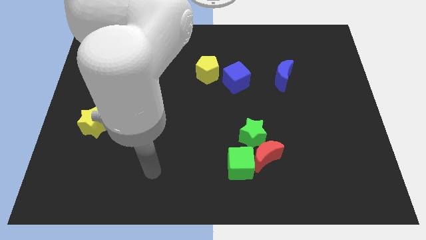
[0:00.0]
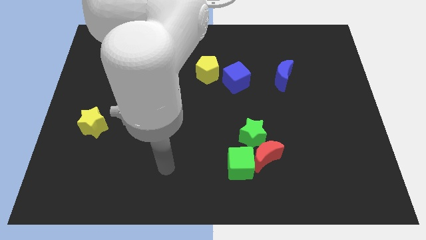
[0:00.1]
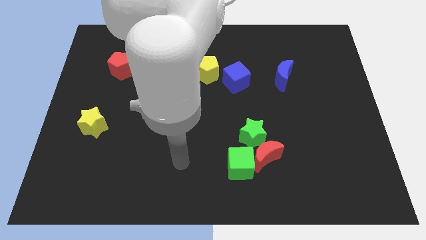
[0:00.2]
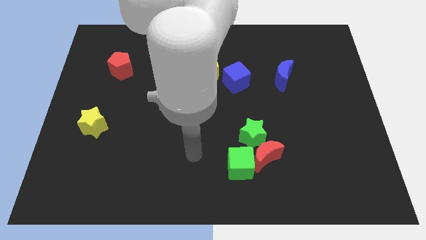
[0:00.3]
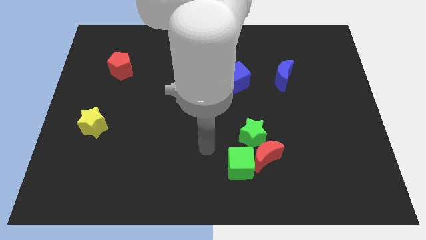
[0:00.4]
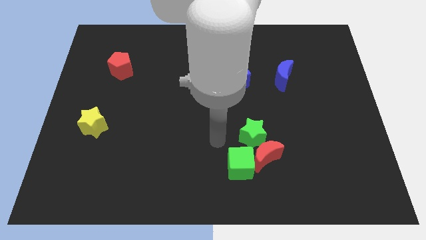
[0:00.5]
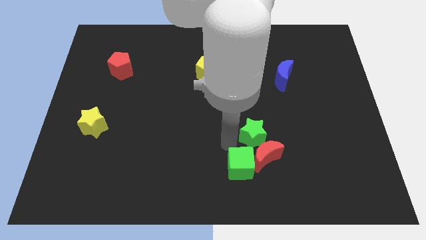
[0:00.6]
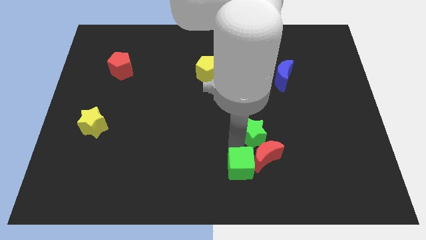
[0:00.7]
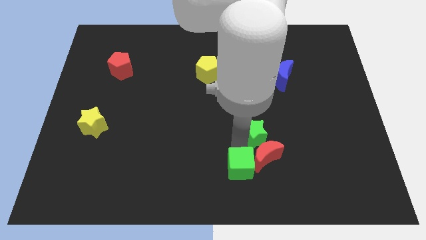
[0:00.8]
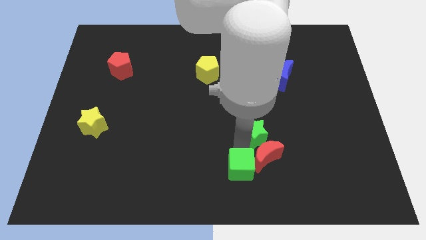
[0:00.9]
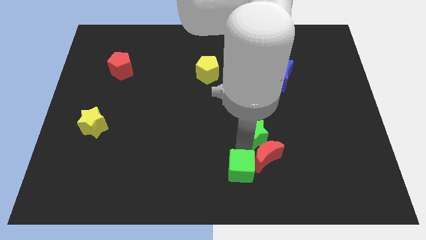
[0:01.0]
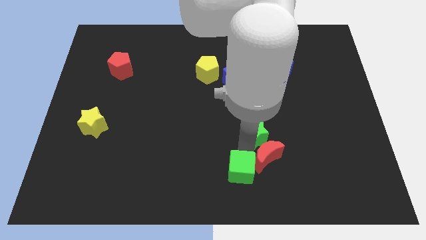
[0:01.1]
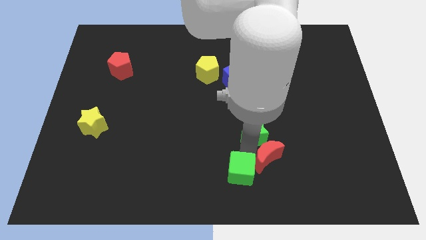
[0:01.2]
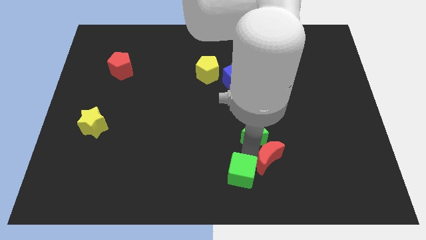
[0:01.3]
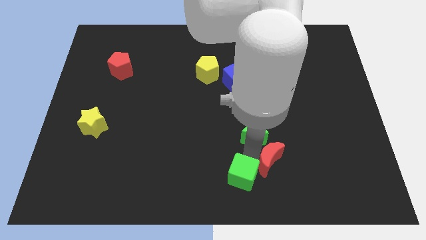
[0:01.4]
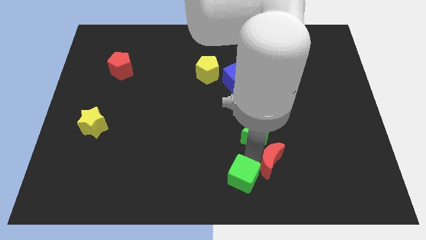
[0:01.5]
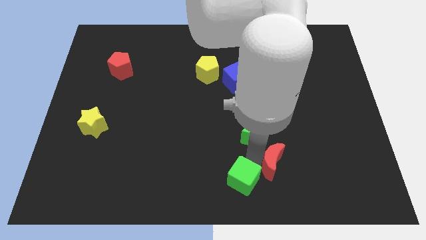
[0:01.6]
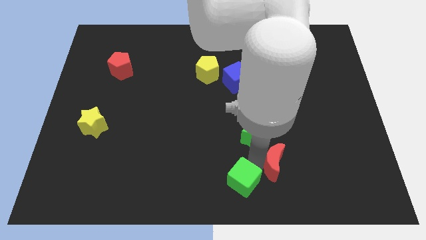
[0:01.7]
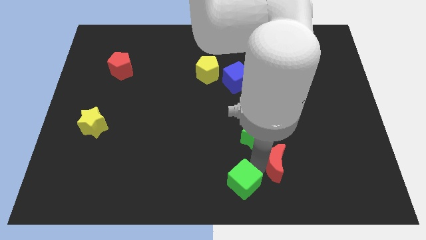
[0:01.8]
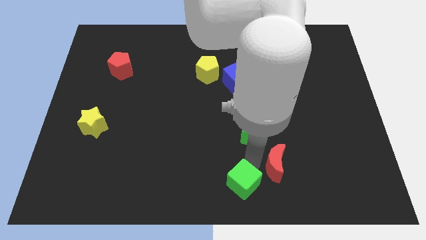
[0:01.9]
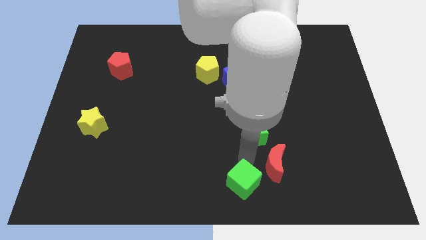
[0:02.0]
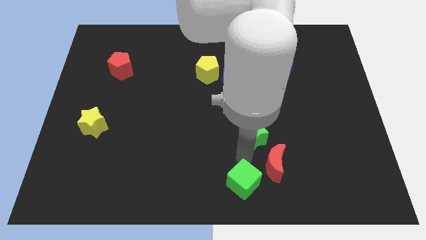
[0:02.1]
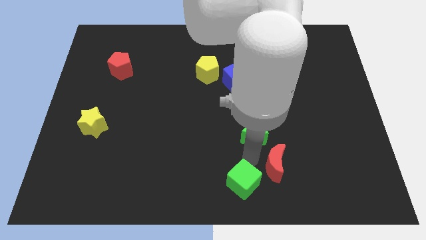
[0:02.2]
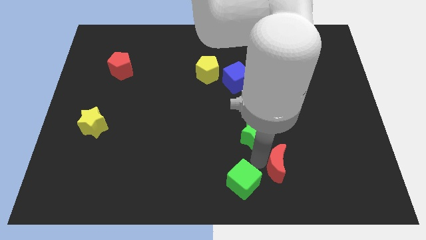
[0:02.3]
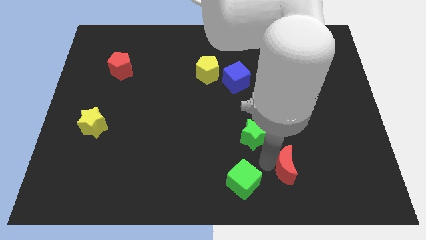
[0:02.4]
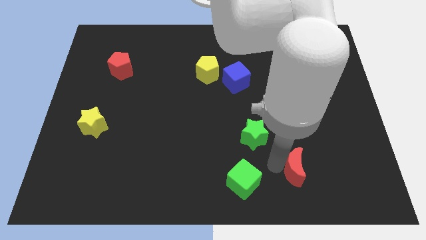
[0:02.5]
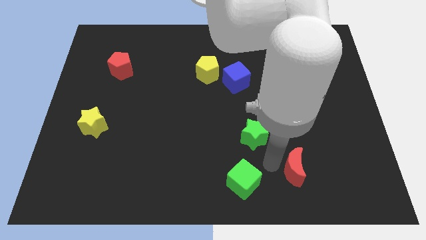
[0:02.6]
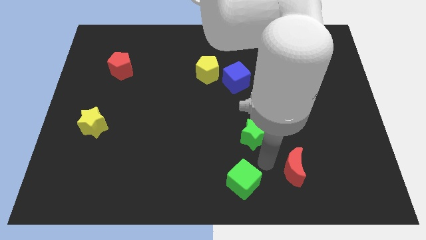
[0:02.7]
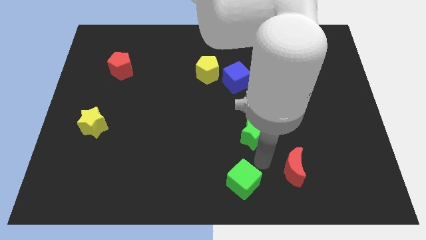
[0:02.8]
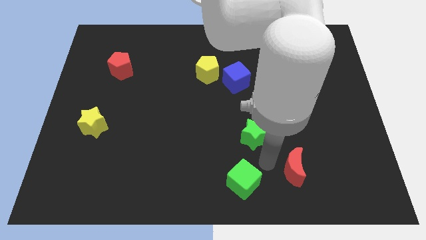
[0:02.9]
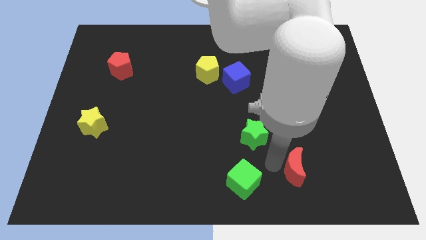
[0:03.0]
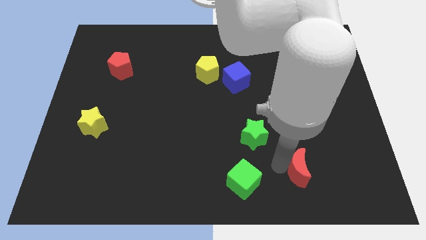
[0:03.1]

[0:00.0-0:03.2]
move the red moon away from the green star and green cube

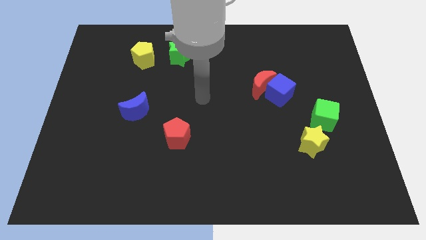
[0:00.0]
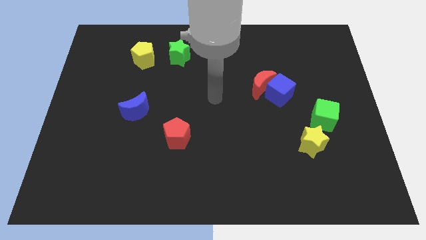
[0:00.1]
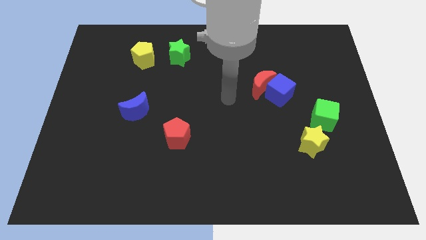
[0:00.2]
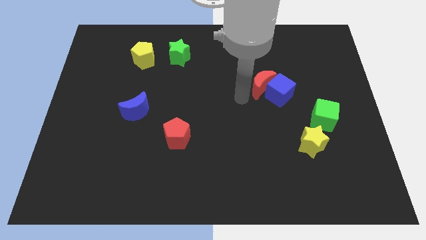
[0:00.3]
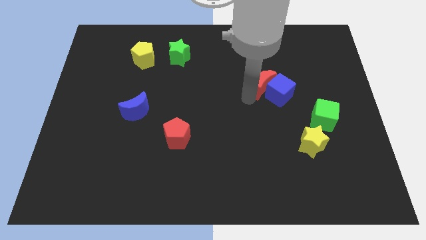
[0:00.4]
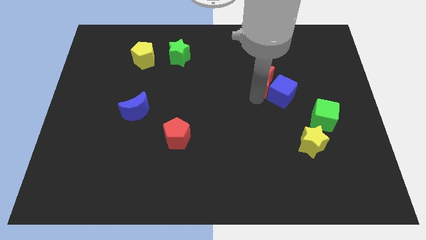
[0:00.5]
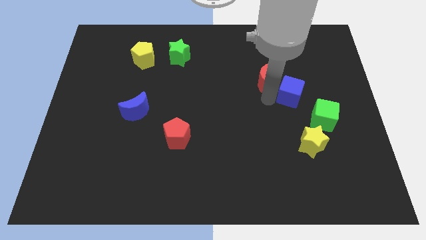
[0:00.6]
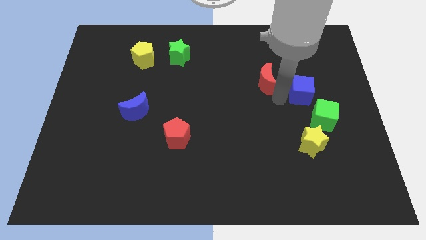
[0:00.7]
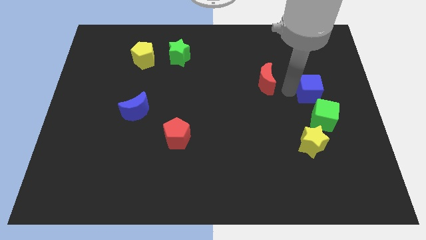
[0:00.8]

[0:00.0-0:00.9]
separate the red moon from the blue cube

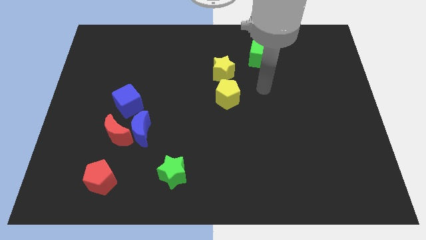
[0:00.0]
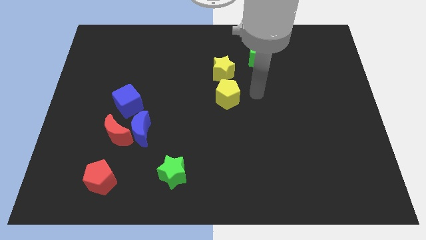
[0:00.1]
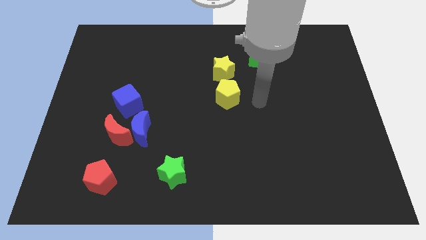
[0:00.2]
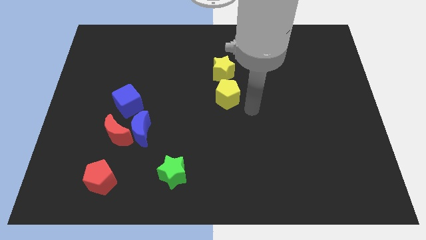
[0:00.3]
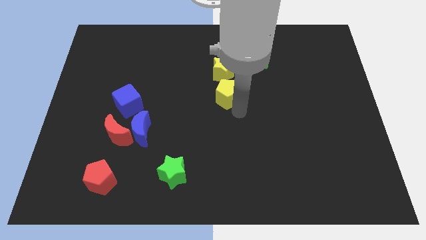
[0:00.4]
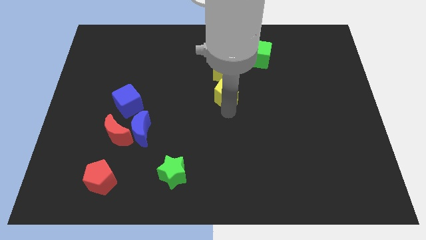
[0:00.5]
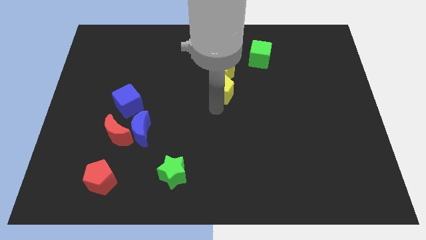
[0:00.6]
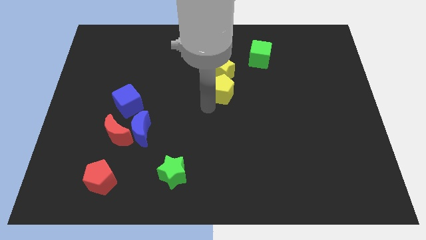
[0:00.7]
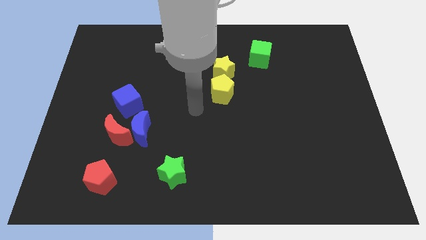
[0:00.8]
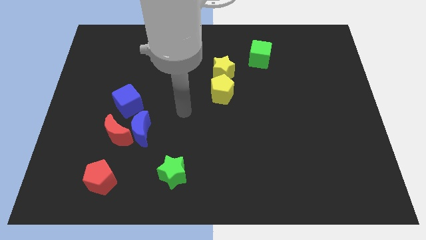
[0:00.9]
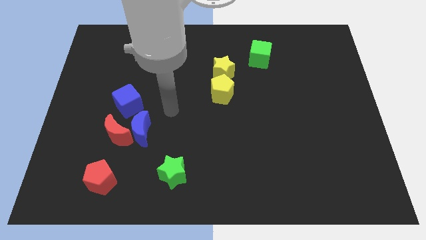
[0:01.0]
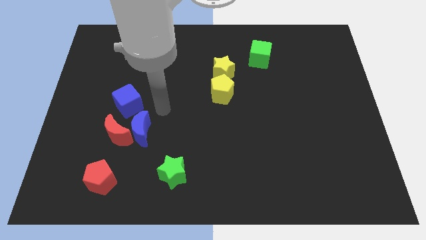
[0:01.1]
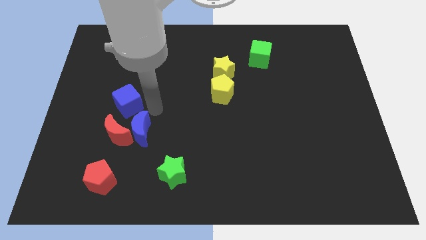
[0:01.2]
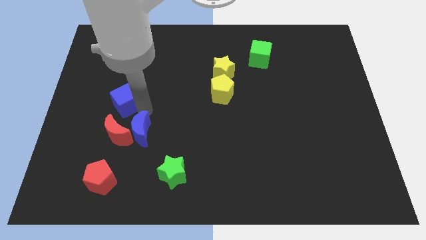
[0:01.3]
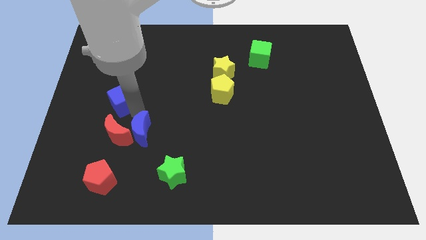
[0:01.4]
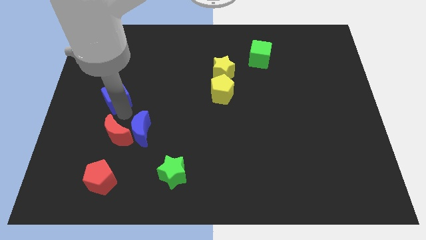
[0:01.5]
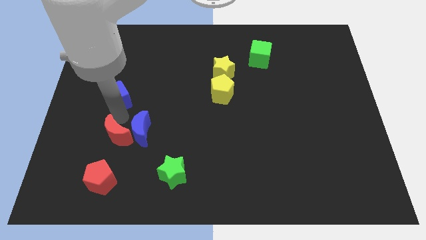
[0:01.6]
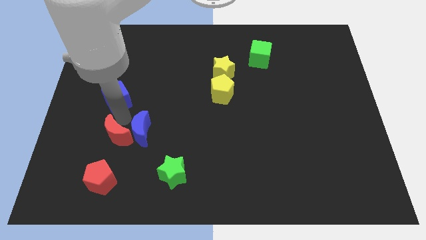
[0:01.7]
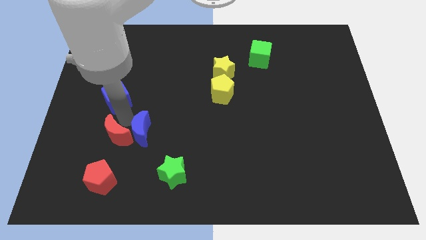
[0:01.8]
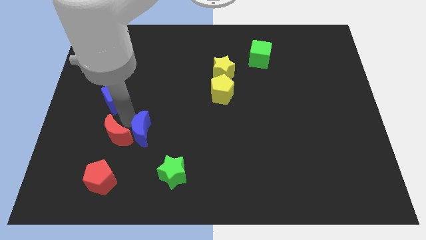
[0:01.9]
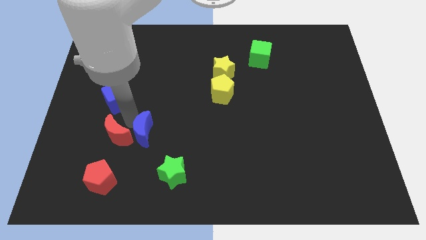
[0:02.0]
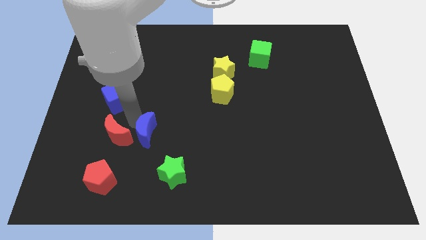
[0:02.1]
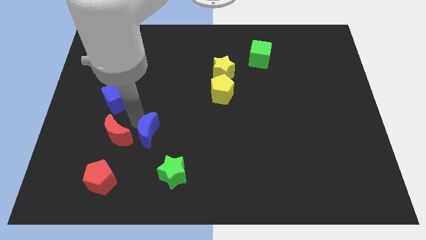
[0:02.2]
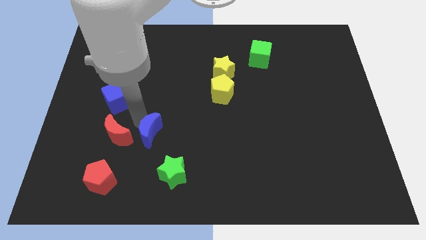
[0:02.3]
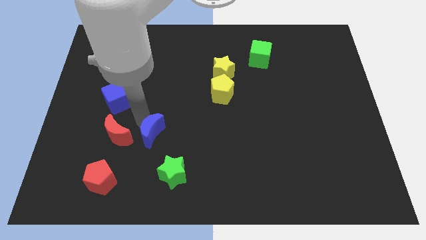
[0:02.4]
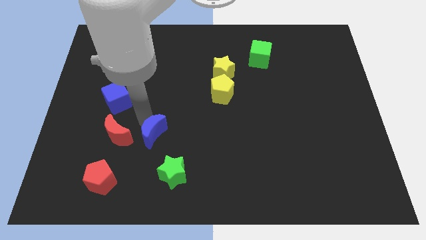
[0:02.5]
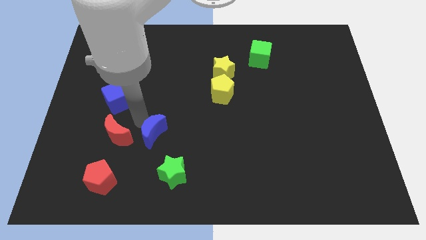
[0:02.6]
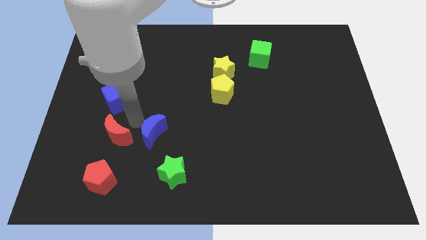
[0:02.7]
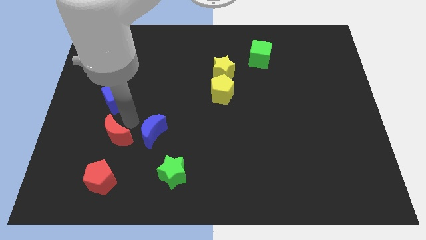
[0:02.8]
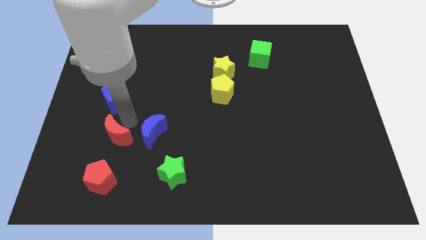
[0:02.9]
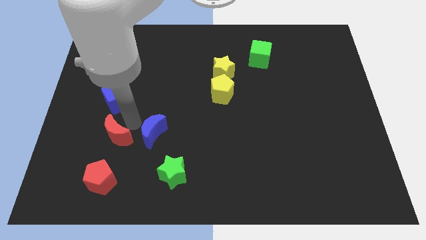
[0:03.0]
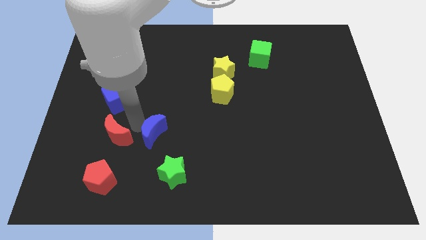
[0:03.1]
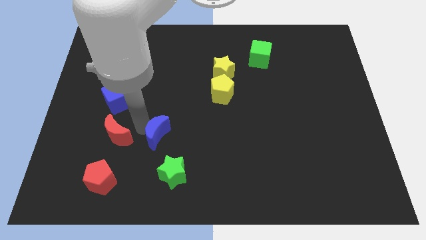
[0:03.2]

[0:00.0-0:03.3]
move the blue moon away from the red moon and blue cube

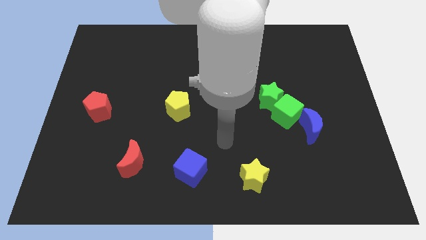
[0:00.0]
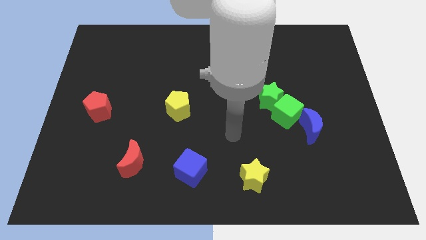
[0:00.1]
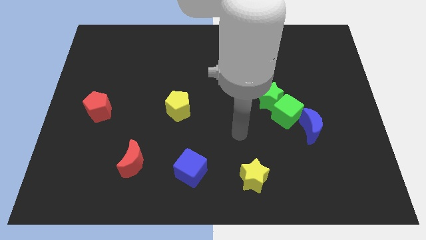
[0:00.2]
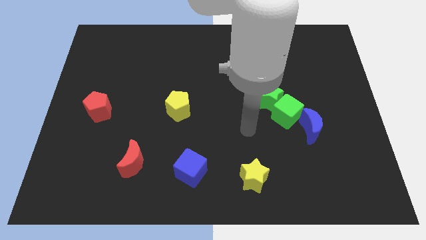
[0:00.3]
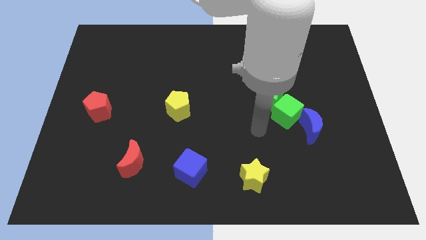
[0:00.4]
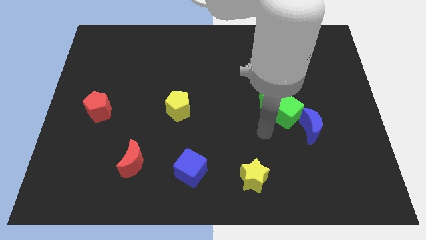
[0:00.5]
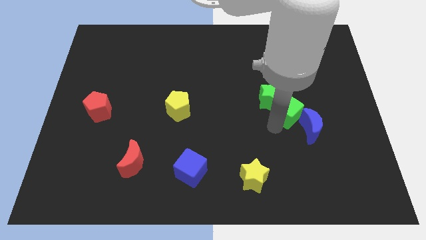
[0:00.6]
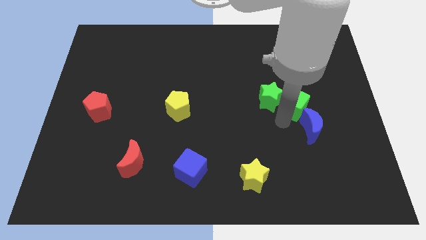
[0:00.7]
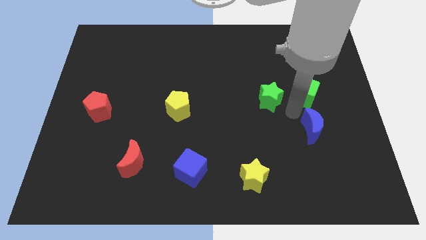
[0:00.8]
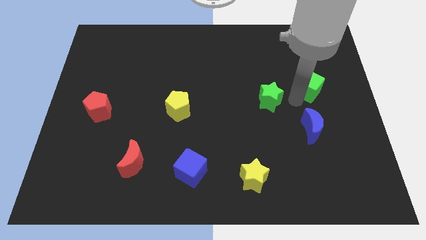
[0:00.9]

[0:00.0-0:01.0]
pull the green star apart from the green cube

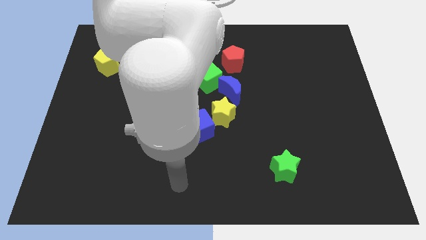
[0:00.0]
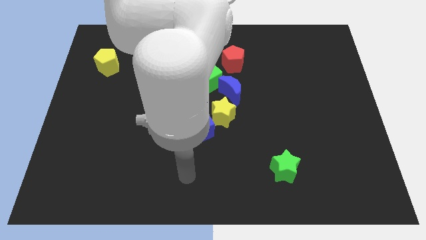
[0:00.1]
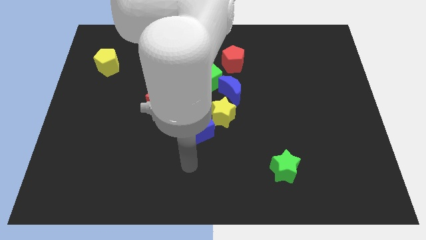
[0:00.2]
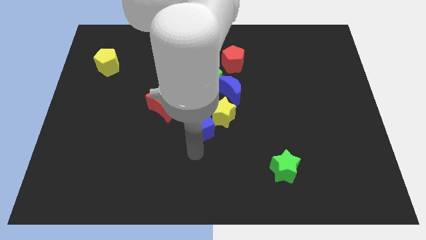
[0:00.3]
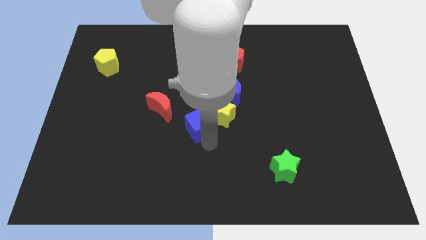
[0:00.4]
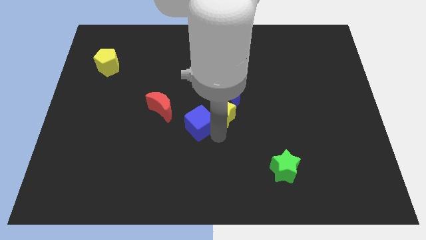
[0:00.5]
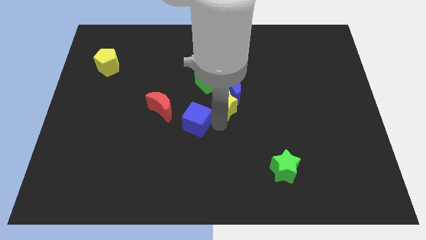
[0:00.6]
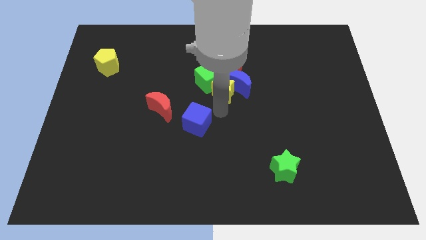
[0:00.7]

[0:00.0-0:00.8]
move the blue cube away from the yellow star

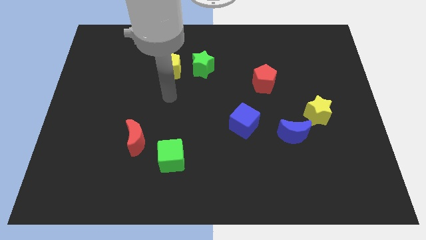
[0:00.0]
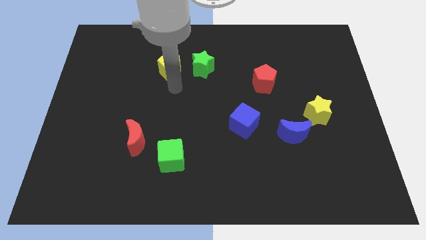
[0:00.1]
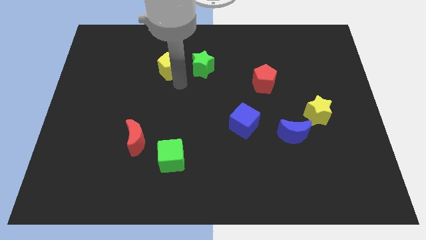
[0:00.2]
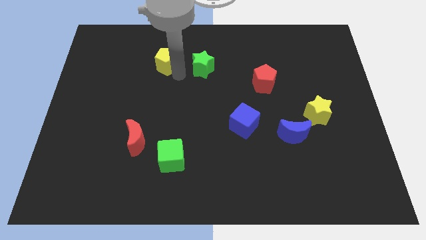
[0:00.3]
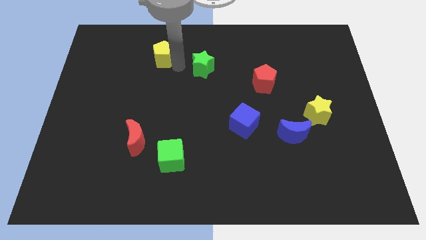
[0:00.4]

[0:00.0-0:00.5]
move the green star away from the yellow pentagon
